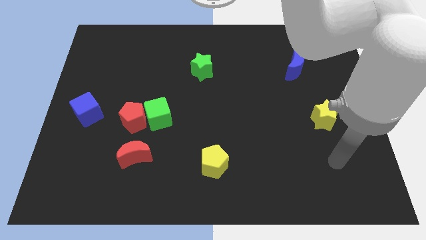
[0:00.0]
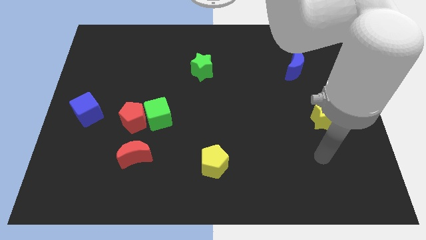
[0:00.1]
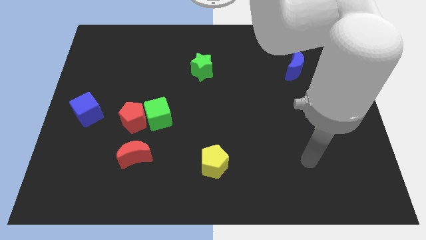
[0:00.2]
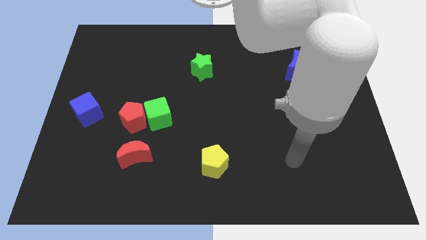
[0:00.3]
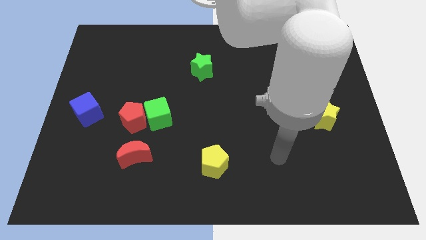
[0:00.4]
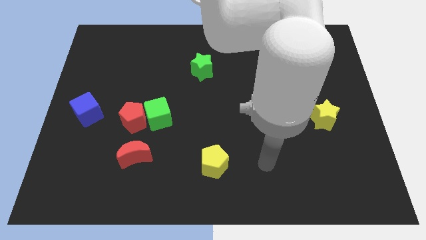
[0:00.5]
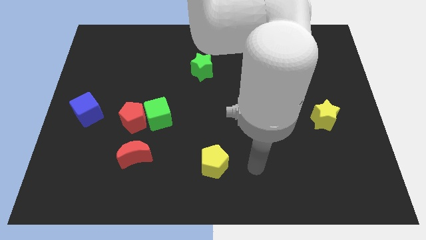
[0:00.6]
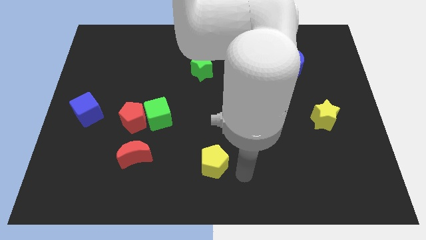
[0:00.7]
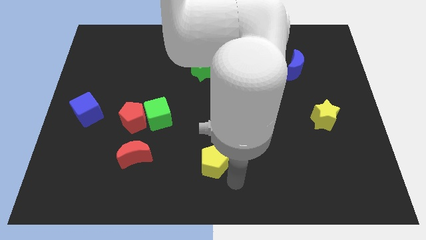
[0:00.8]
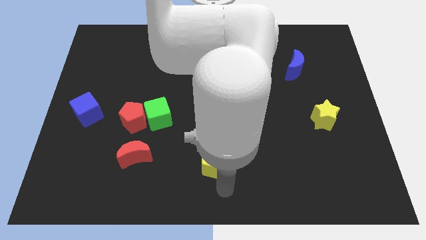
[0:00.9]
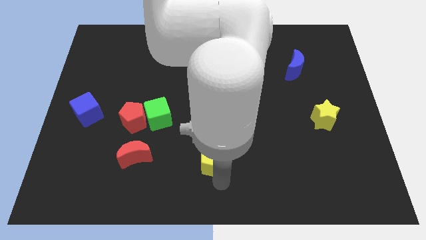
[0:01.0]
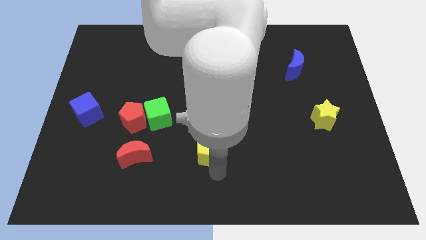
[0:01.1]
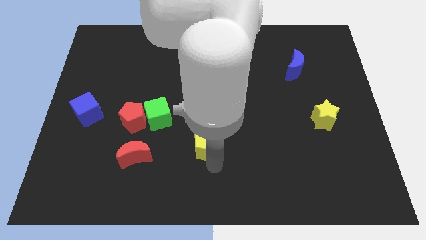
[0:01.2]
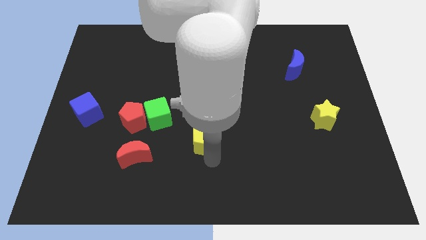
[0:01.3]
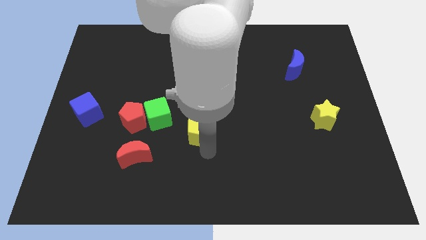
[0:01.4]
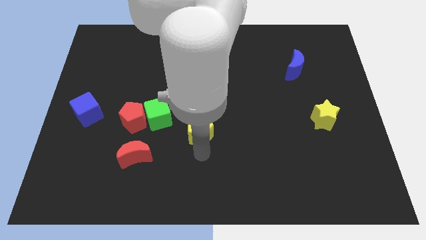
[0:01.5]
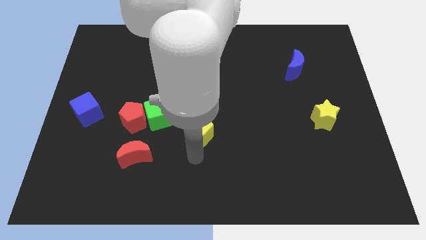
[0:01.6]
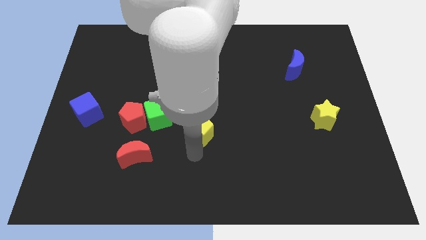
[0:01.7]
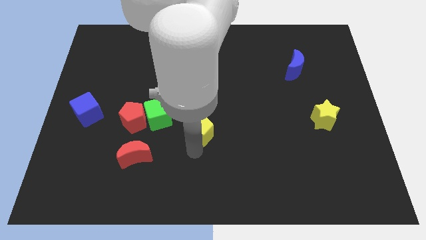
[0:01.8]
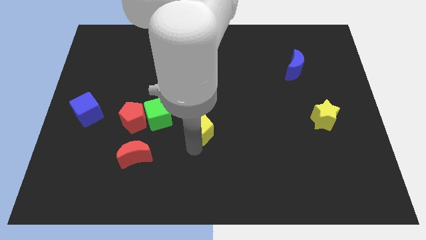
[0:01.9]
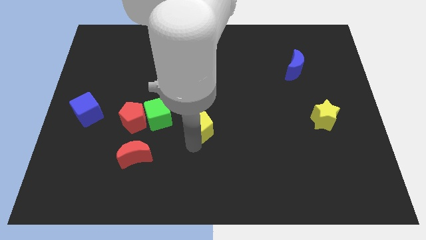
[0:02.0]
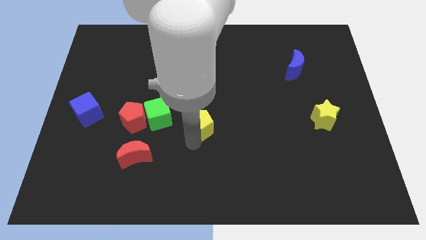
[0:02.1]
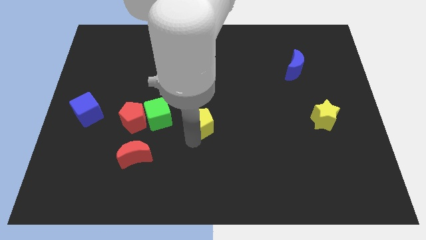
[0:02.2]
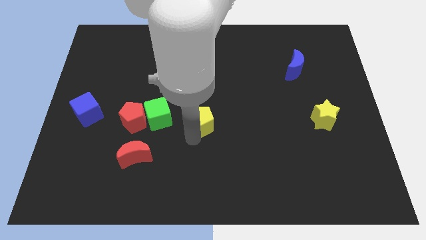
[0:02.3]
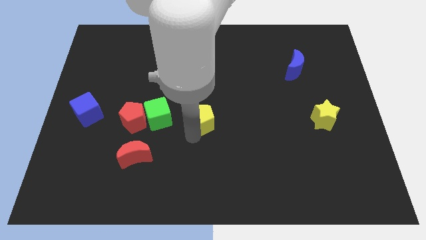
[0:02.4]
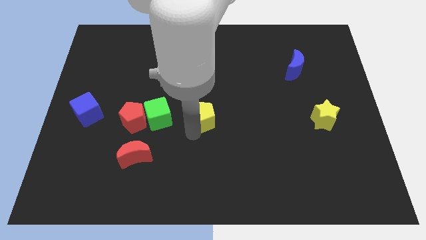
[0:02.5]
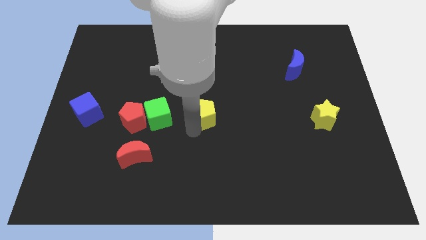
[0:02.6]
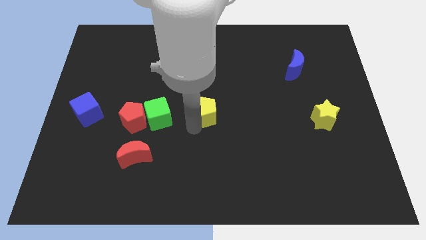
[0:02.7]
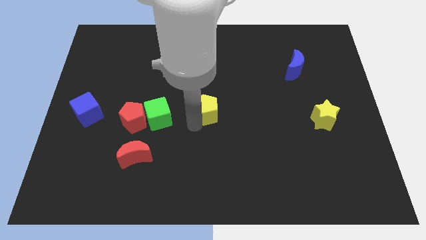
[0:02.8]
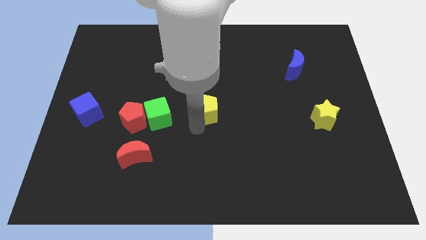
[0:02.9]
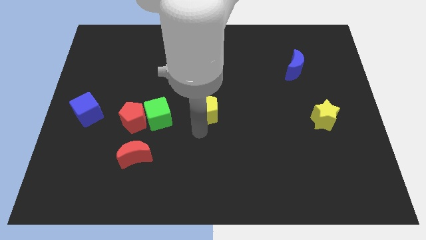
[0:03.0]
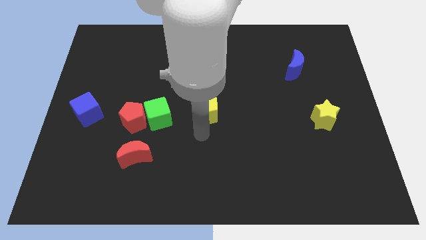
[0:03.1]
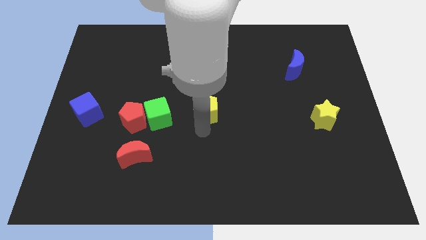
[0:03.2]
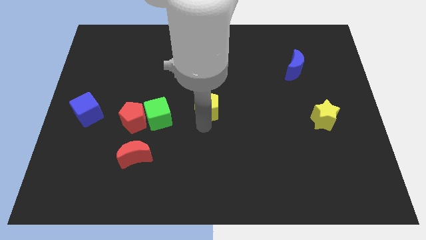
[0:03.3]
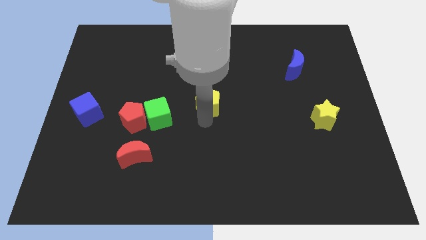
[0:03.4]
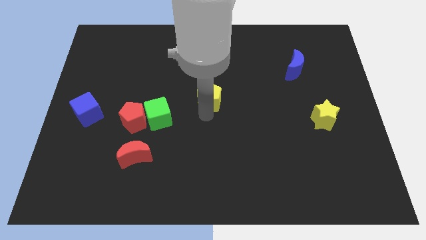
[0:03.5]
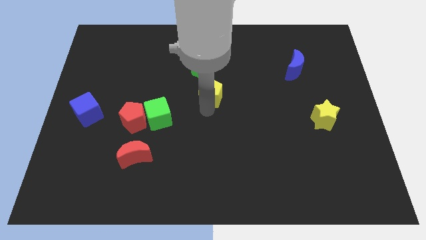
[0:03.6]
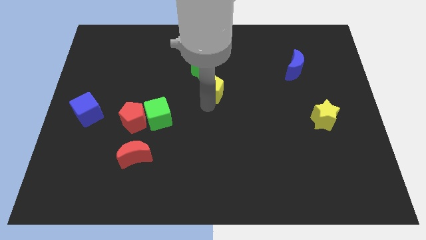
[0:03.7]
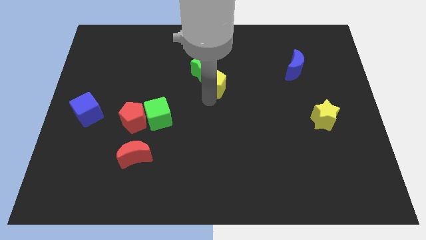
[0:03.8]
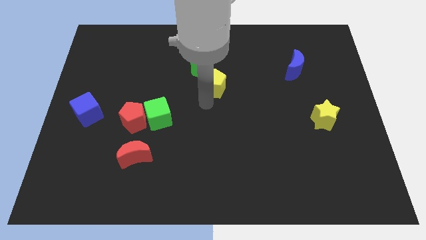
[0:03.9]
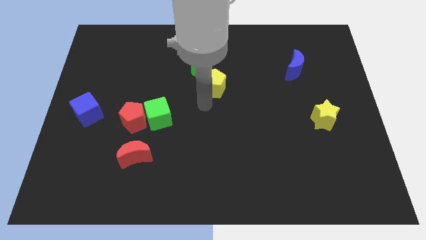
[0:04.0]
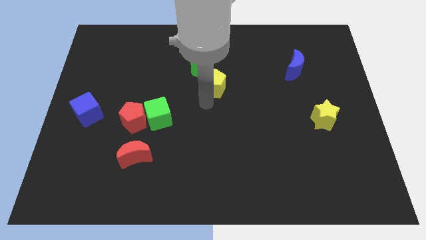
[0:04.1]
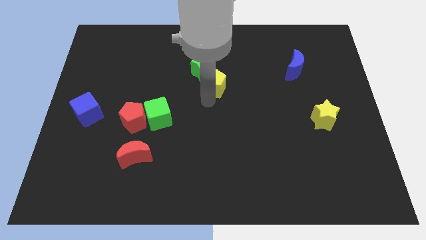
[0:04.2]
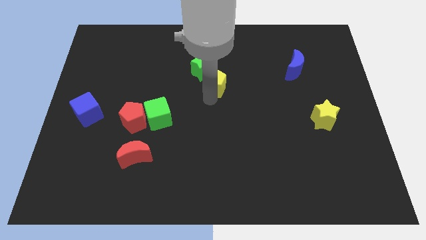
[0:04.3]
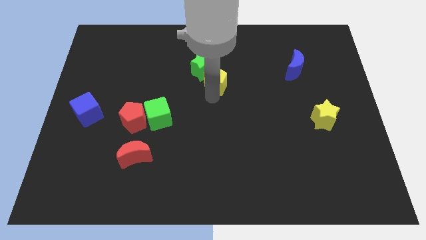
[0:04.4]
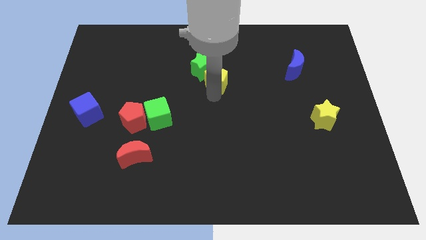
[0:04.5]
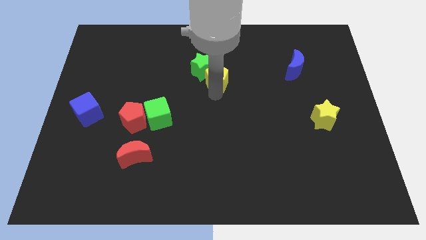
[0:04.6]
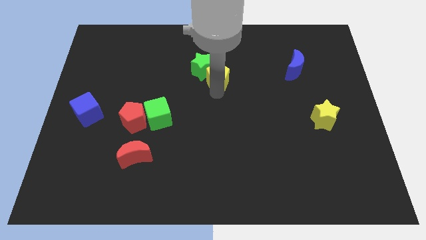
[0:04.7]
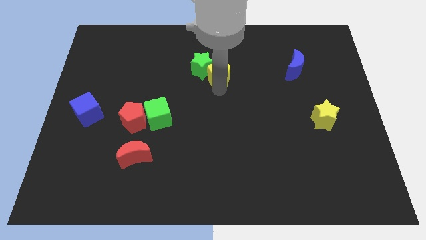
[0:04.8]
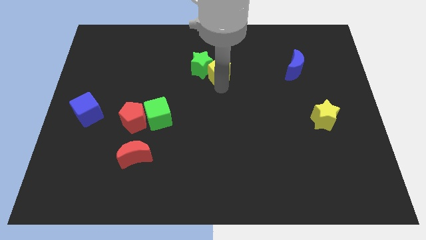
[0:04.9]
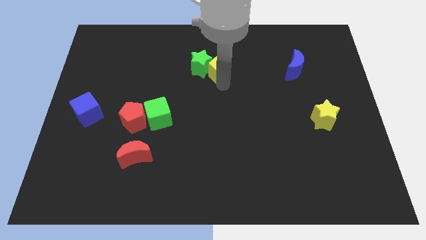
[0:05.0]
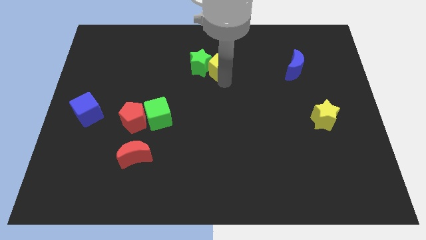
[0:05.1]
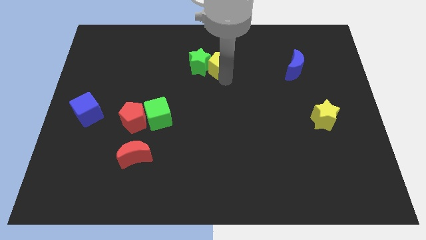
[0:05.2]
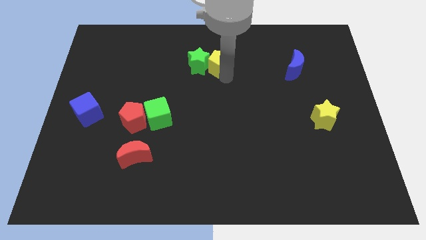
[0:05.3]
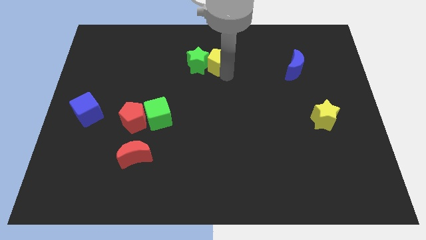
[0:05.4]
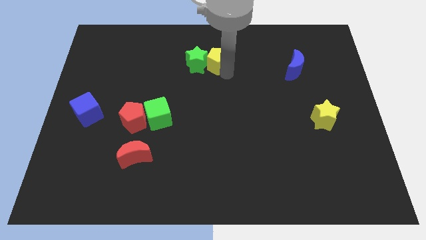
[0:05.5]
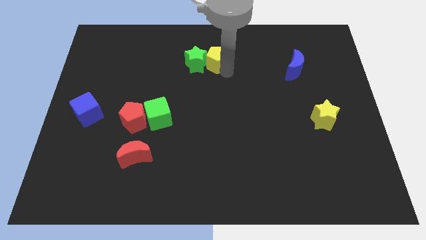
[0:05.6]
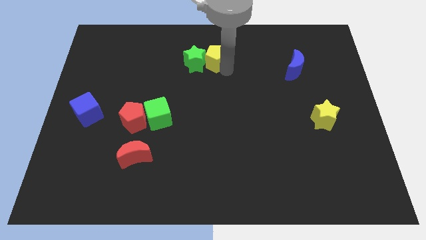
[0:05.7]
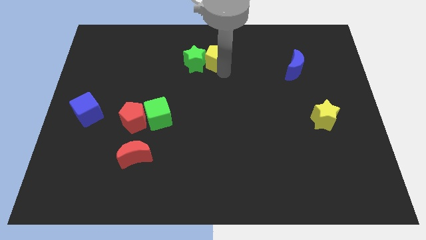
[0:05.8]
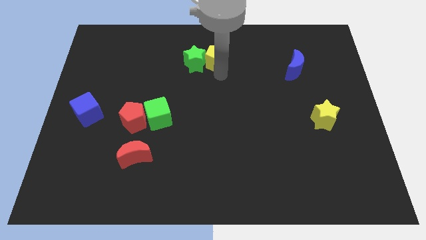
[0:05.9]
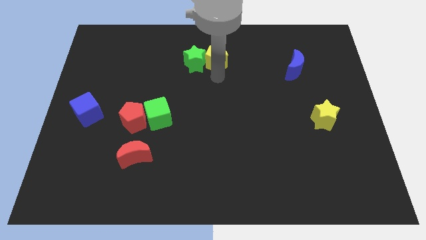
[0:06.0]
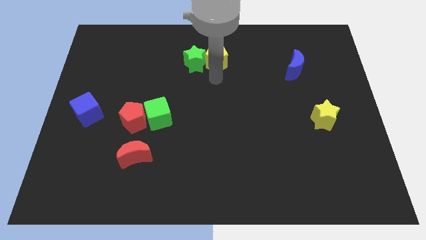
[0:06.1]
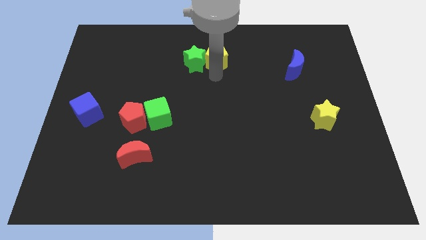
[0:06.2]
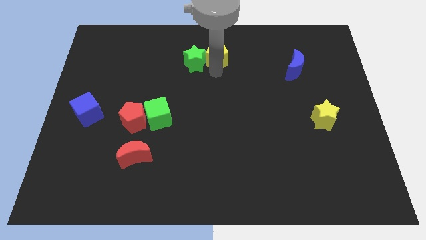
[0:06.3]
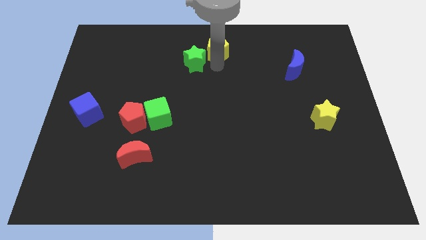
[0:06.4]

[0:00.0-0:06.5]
push the yellow pentagon to the top side
